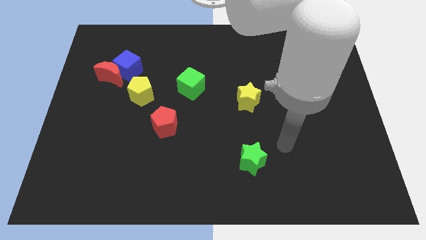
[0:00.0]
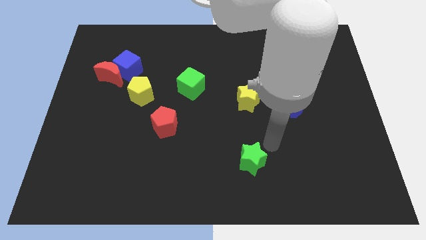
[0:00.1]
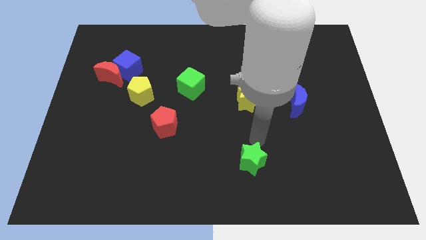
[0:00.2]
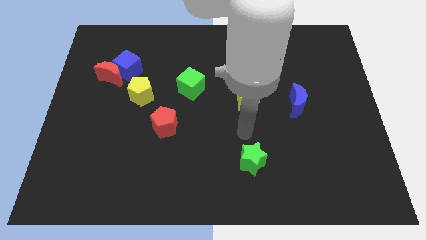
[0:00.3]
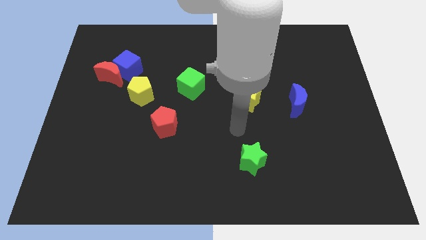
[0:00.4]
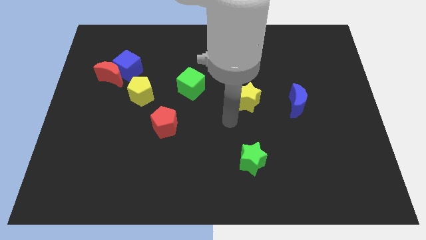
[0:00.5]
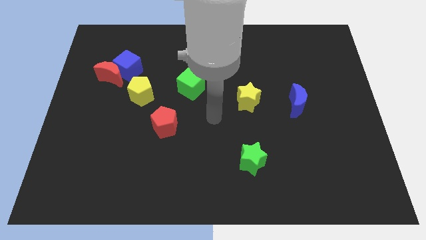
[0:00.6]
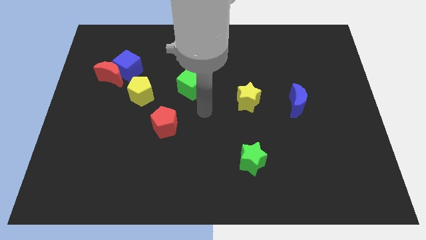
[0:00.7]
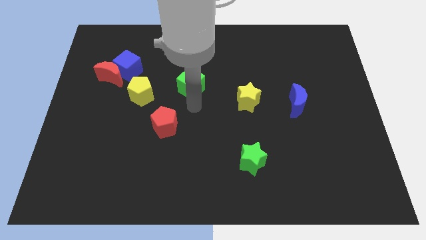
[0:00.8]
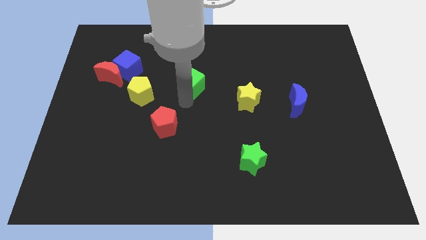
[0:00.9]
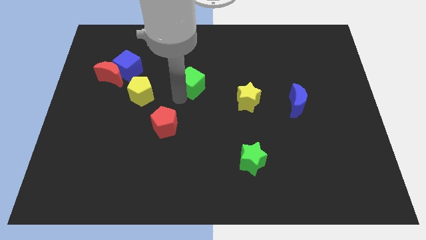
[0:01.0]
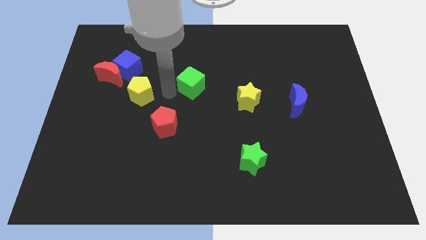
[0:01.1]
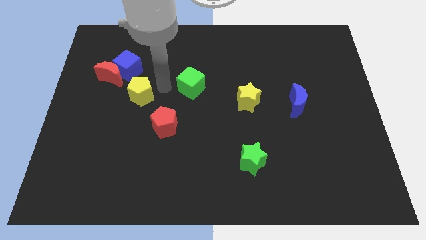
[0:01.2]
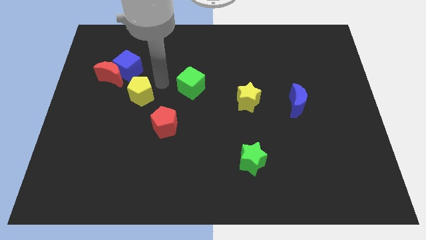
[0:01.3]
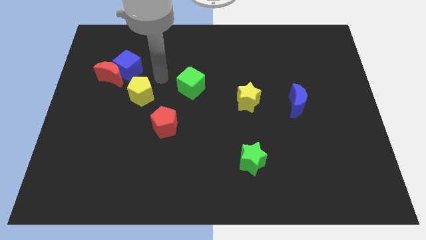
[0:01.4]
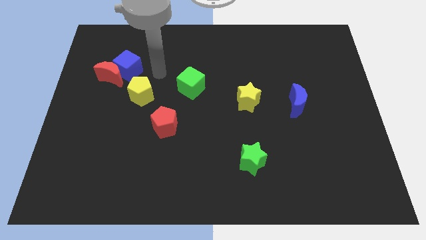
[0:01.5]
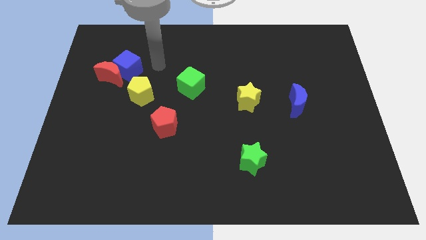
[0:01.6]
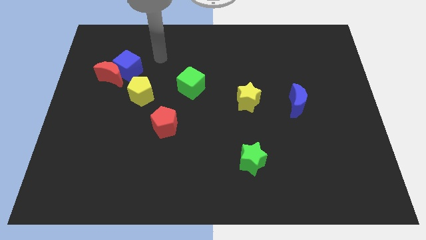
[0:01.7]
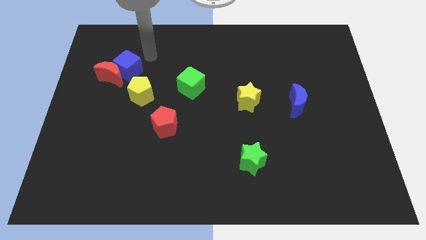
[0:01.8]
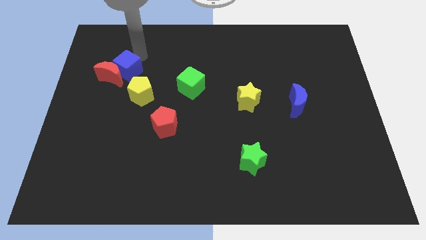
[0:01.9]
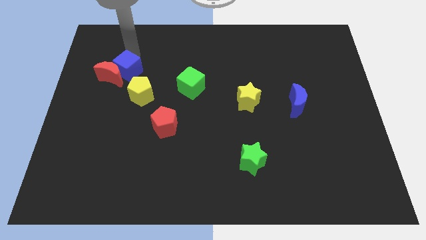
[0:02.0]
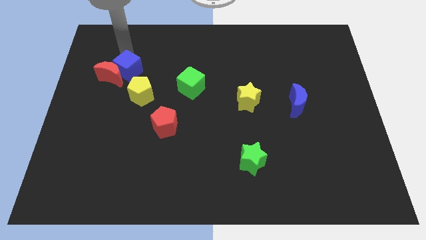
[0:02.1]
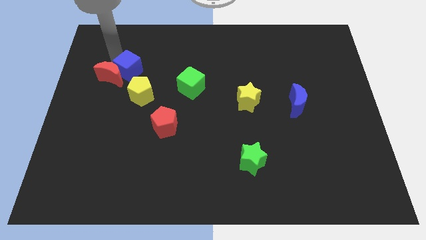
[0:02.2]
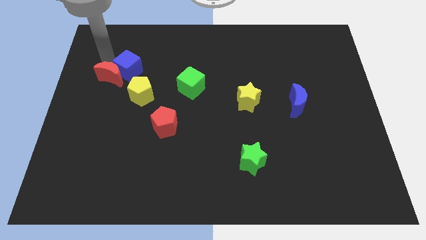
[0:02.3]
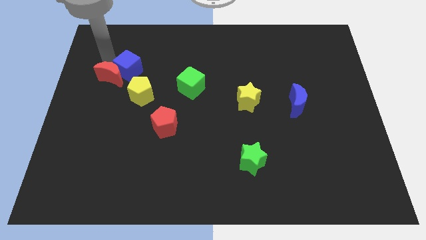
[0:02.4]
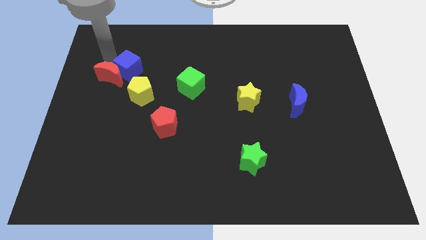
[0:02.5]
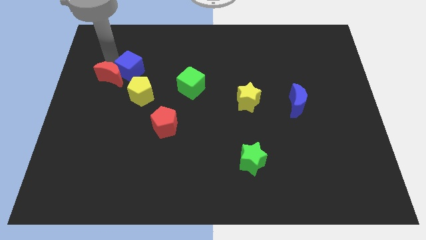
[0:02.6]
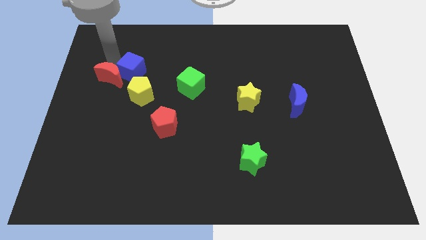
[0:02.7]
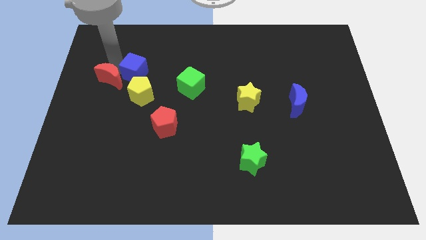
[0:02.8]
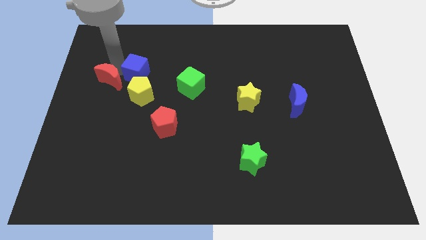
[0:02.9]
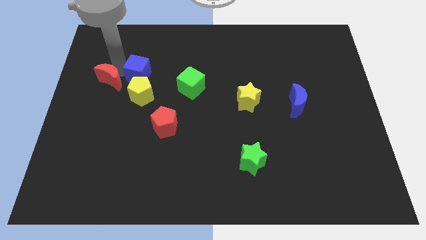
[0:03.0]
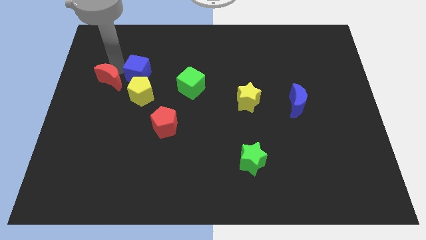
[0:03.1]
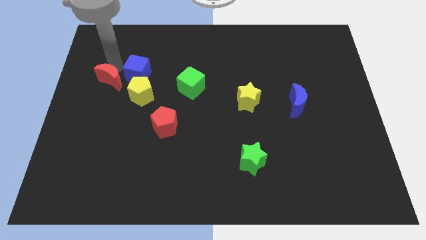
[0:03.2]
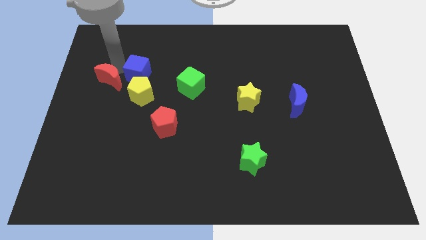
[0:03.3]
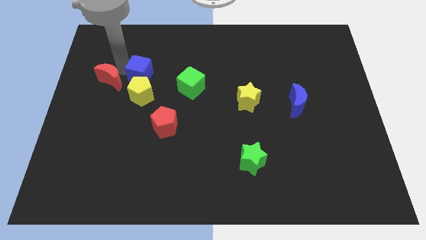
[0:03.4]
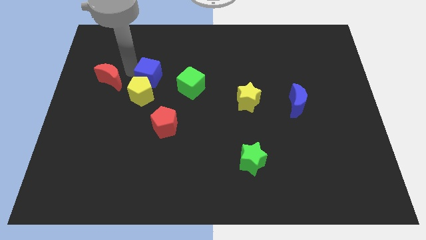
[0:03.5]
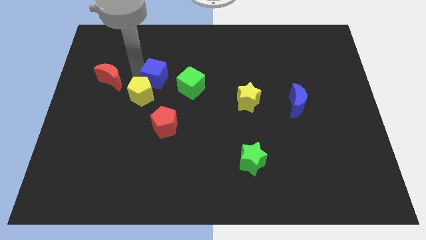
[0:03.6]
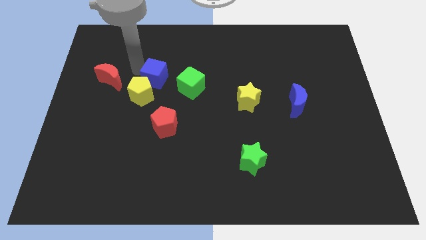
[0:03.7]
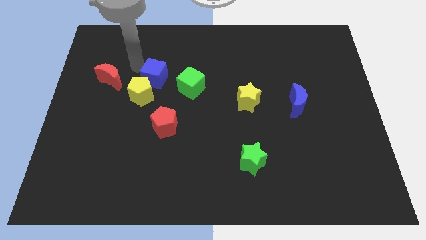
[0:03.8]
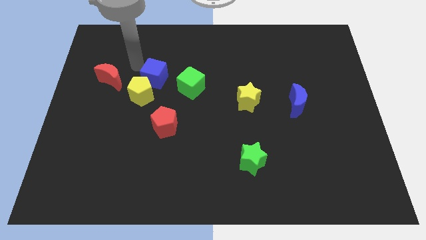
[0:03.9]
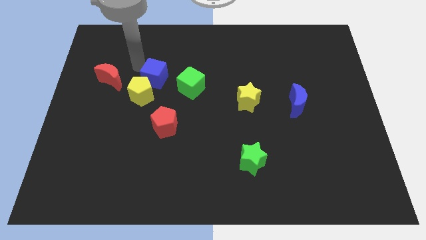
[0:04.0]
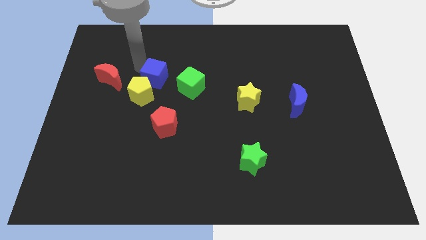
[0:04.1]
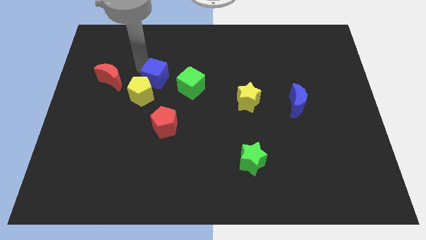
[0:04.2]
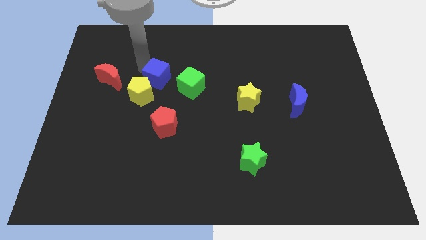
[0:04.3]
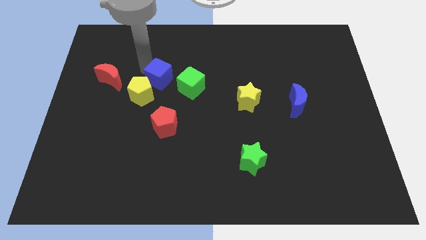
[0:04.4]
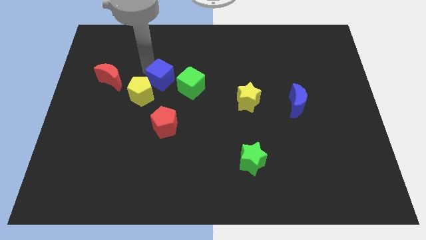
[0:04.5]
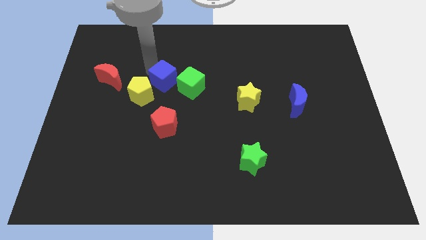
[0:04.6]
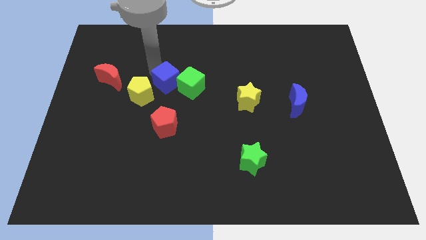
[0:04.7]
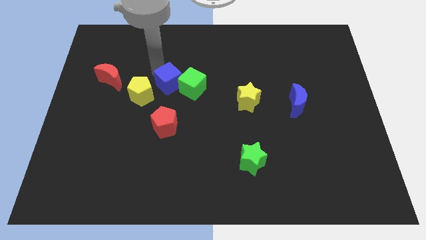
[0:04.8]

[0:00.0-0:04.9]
push the blue cube to the middle

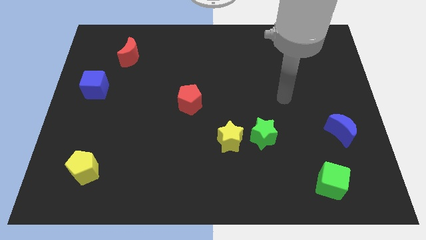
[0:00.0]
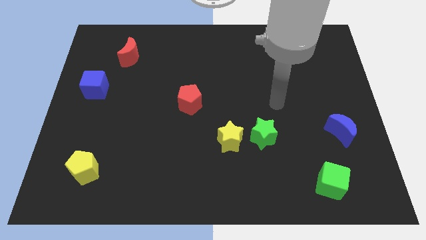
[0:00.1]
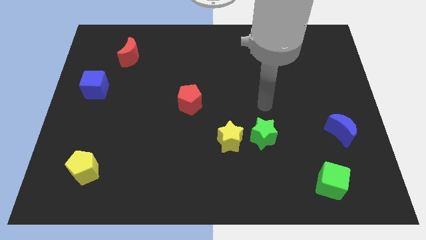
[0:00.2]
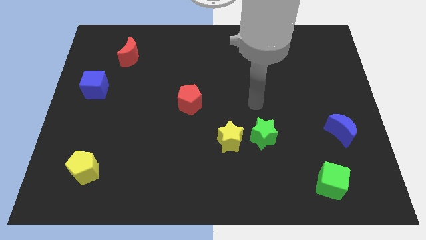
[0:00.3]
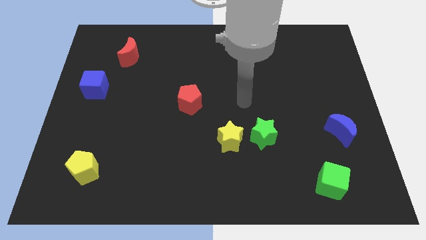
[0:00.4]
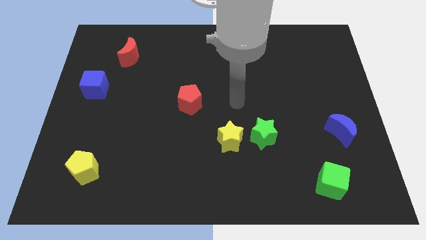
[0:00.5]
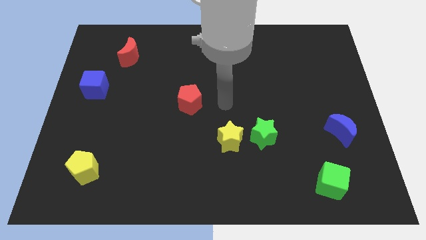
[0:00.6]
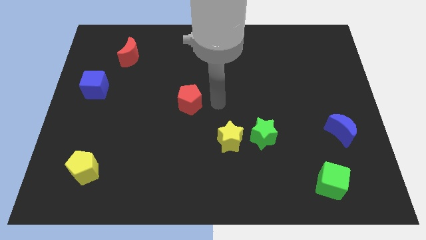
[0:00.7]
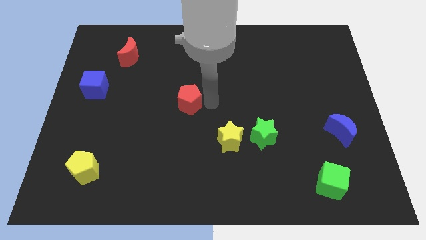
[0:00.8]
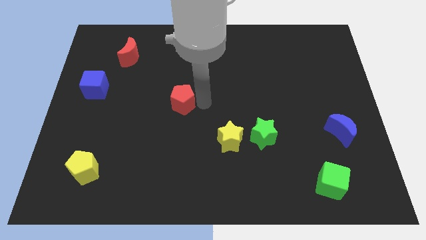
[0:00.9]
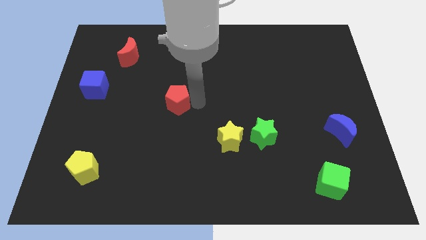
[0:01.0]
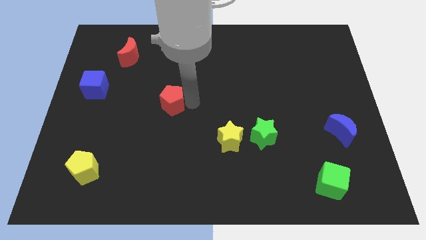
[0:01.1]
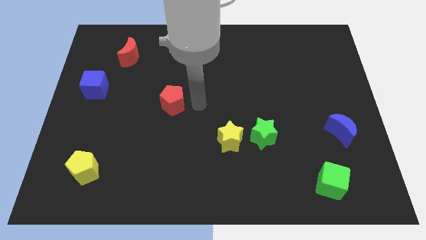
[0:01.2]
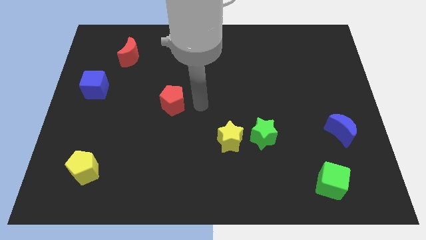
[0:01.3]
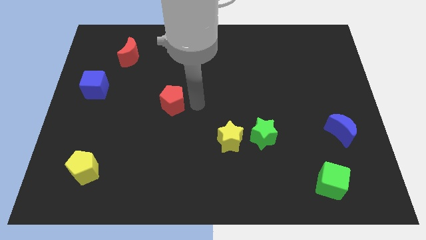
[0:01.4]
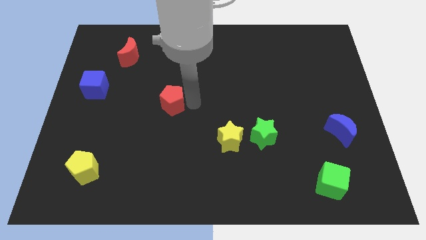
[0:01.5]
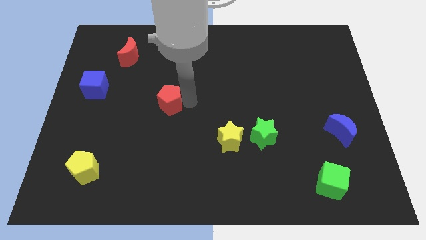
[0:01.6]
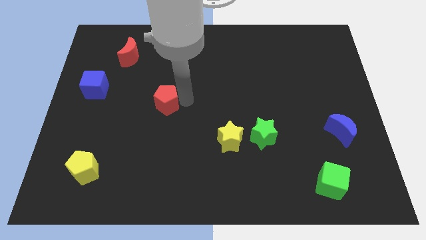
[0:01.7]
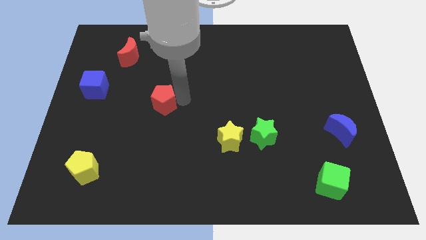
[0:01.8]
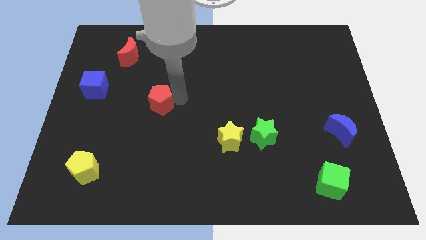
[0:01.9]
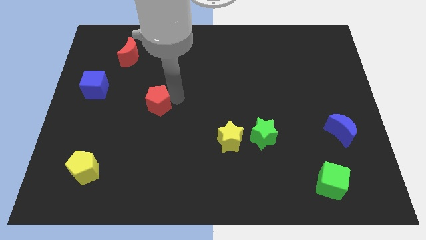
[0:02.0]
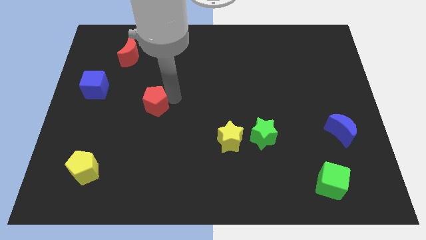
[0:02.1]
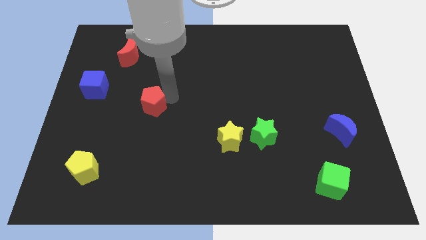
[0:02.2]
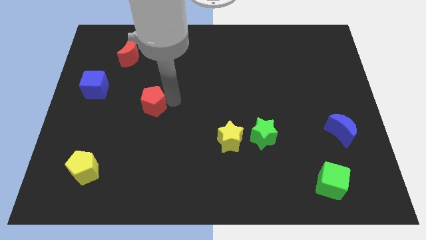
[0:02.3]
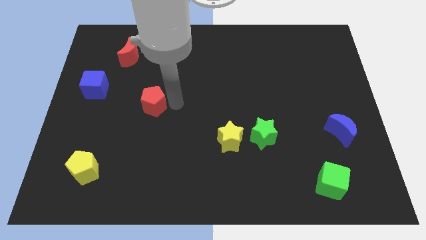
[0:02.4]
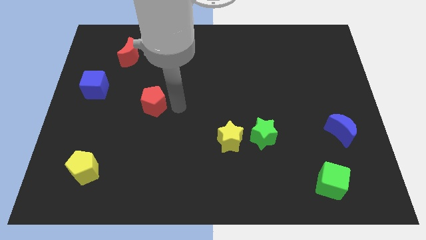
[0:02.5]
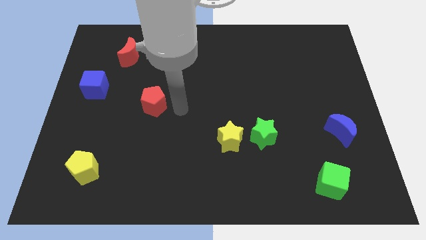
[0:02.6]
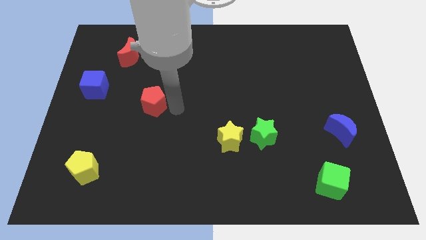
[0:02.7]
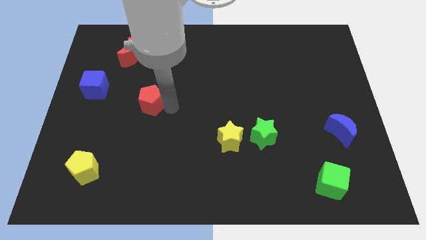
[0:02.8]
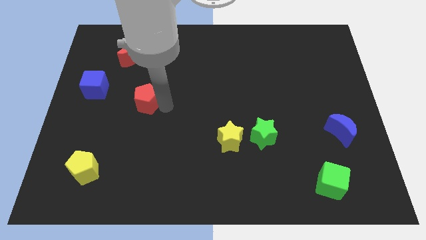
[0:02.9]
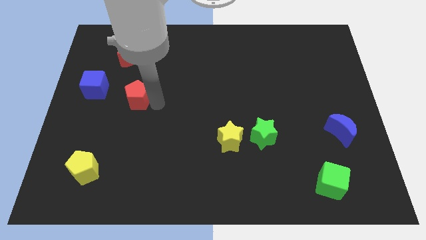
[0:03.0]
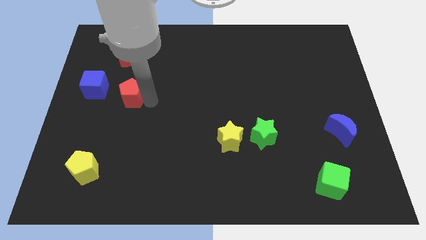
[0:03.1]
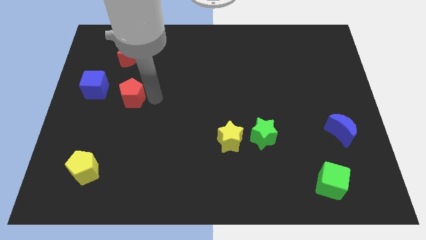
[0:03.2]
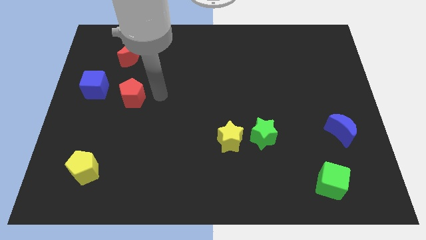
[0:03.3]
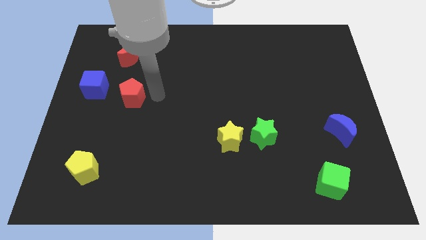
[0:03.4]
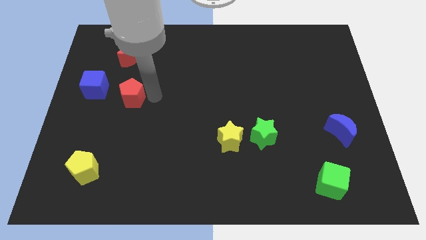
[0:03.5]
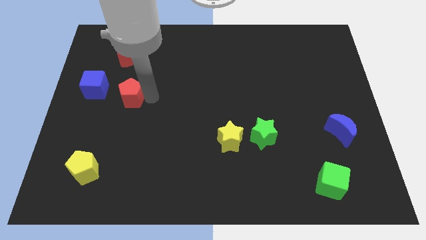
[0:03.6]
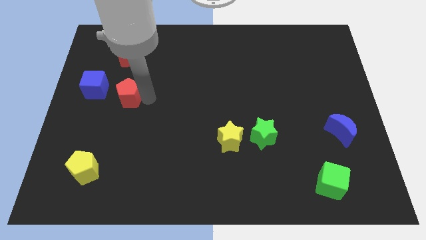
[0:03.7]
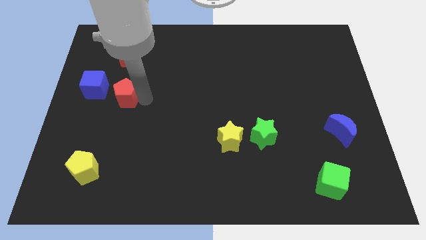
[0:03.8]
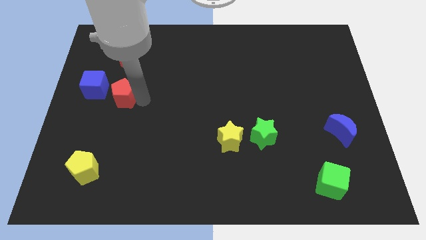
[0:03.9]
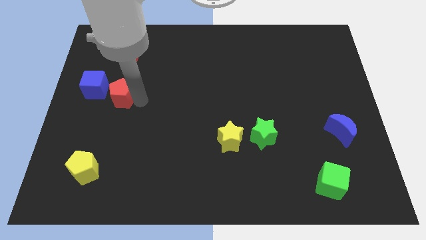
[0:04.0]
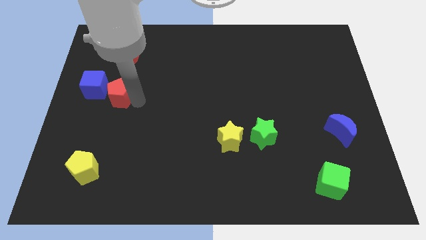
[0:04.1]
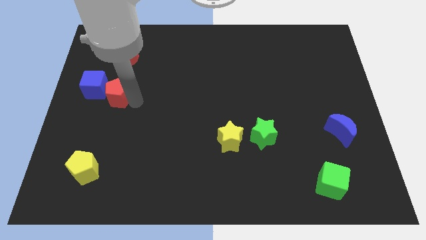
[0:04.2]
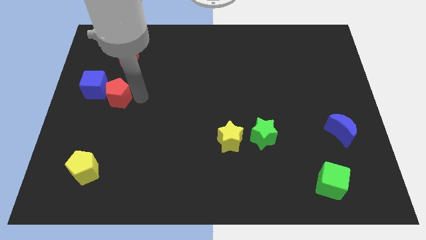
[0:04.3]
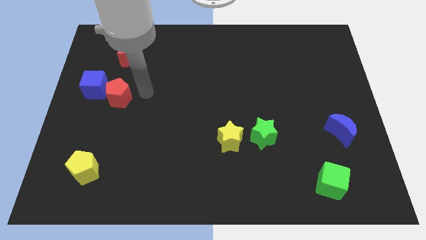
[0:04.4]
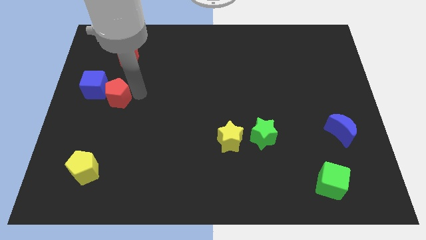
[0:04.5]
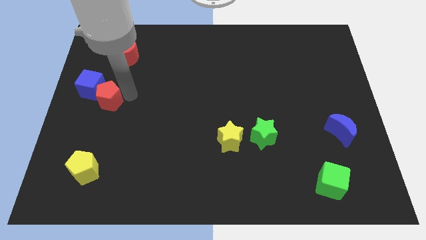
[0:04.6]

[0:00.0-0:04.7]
move the red pentagon to the left side
